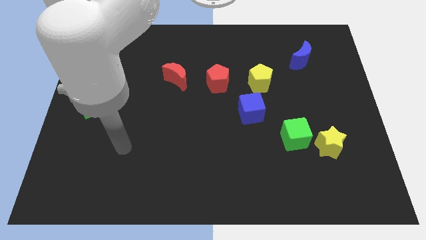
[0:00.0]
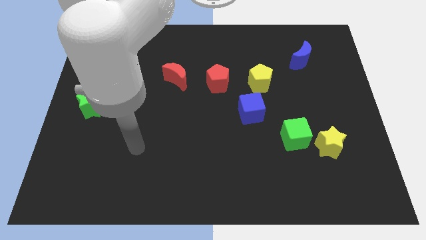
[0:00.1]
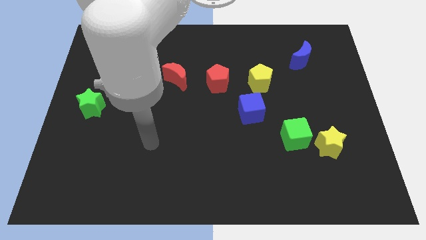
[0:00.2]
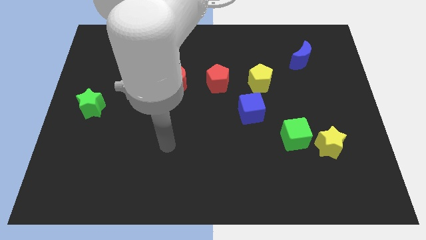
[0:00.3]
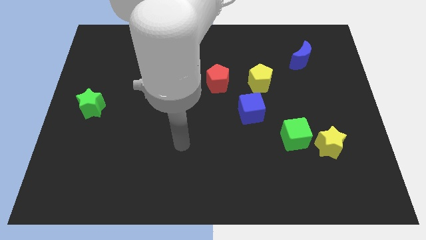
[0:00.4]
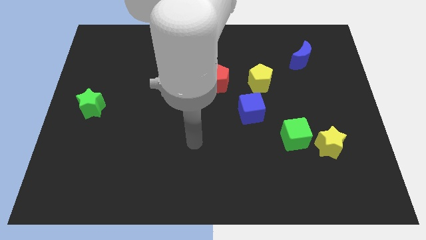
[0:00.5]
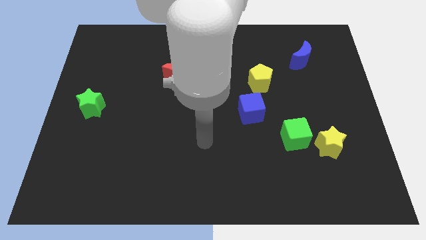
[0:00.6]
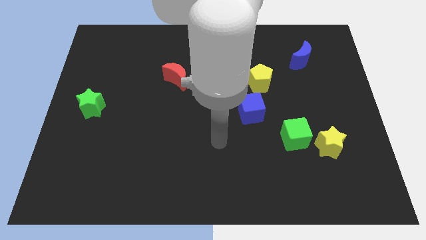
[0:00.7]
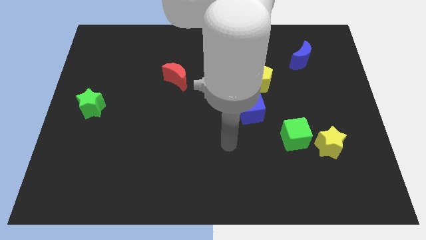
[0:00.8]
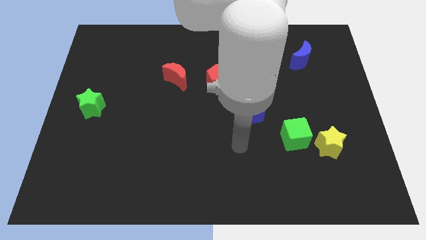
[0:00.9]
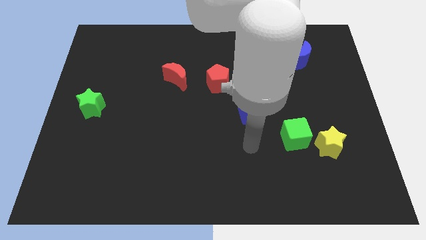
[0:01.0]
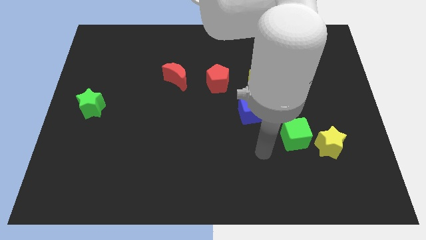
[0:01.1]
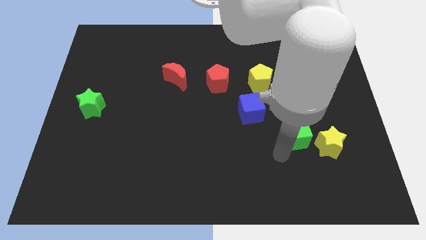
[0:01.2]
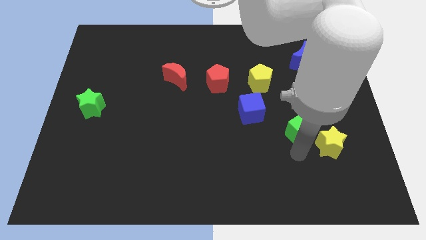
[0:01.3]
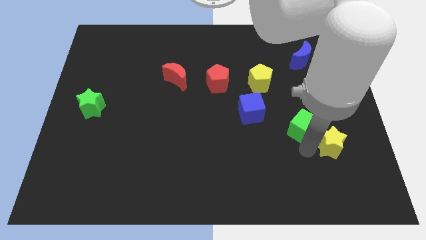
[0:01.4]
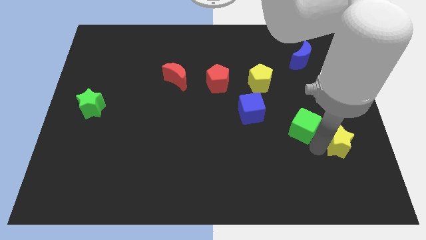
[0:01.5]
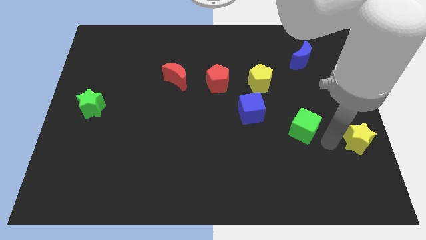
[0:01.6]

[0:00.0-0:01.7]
separate the green cube from the yellow star

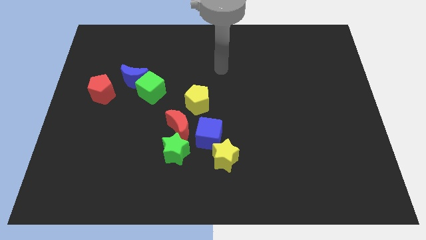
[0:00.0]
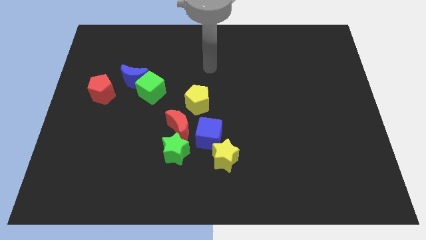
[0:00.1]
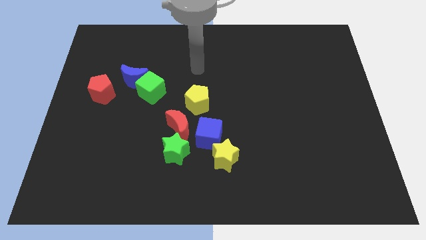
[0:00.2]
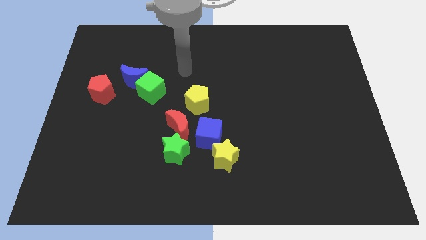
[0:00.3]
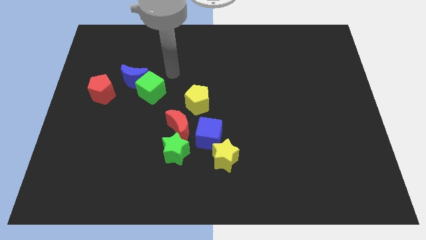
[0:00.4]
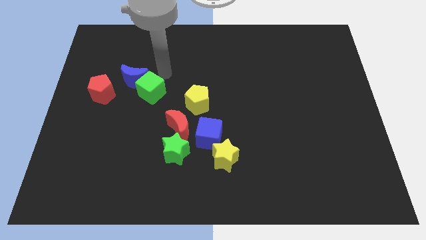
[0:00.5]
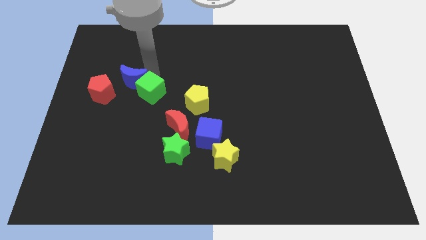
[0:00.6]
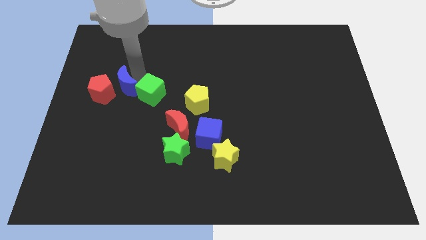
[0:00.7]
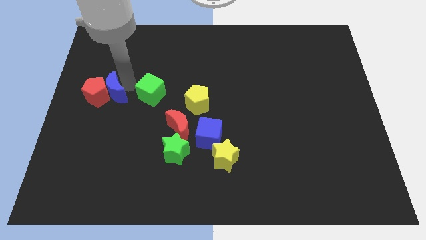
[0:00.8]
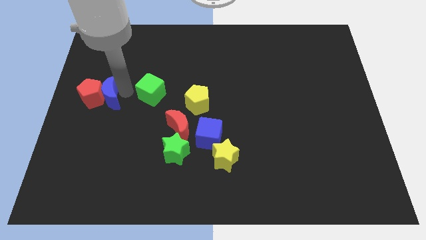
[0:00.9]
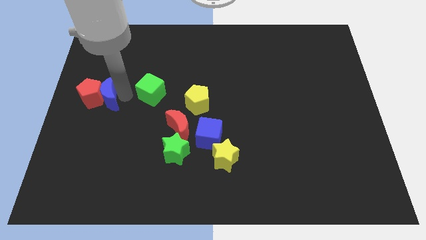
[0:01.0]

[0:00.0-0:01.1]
separate the green cube from the blue moon

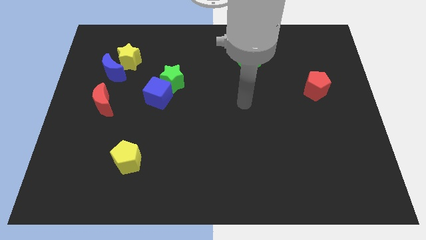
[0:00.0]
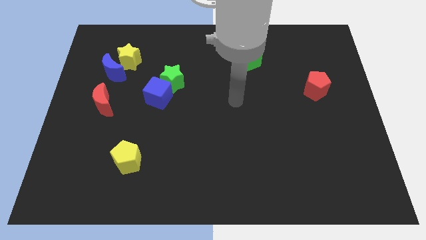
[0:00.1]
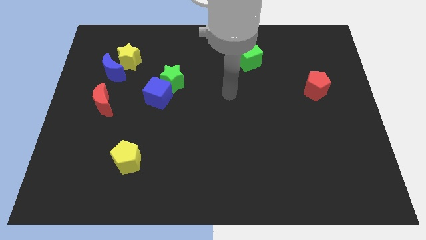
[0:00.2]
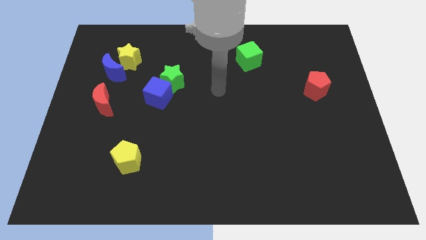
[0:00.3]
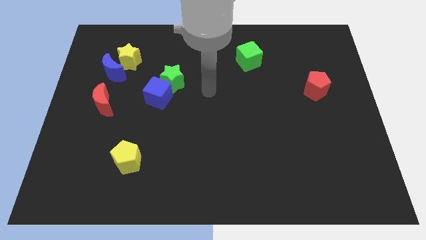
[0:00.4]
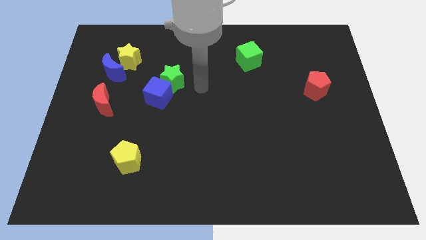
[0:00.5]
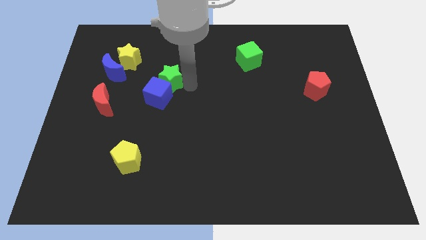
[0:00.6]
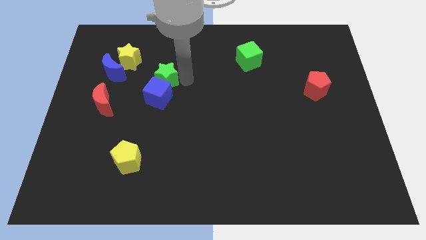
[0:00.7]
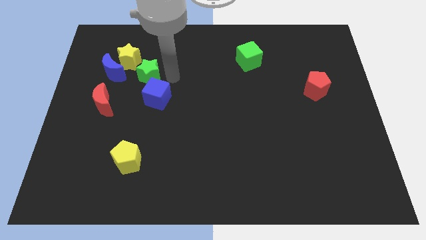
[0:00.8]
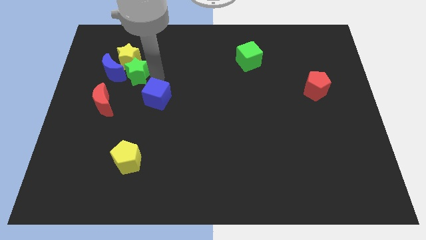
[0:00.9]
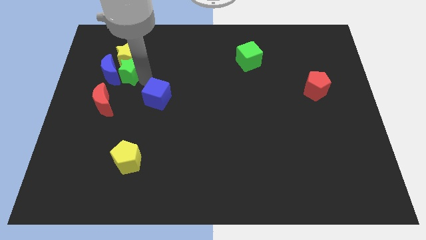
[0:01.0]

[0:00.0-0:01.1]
move the blue cube away from the green star

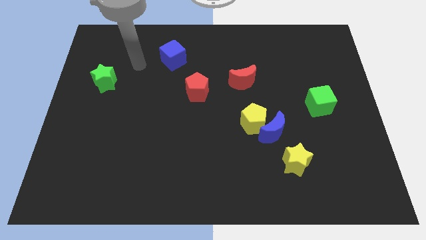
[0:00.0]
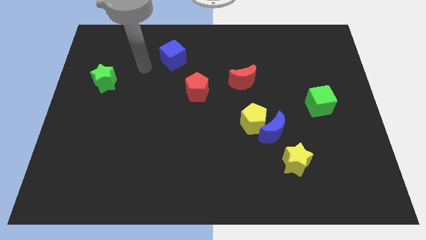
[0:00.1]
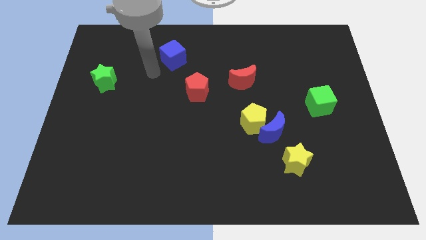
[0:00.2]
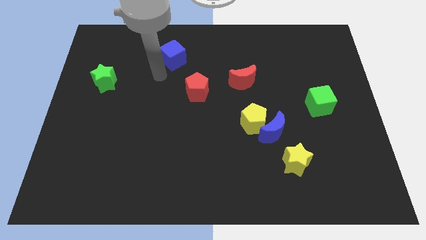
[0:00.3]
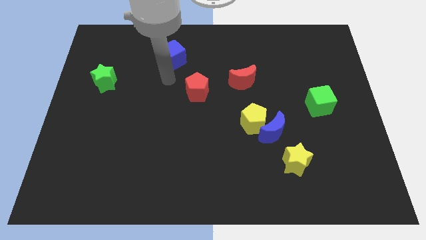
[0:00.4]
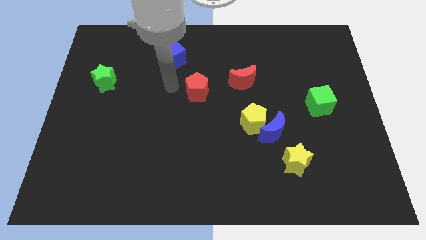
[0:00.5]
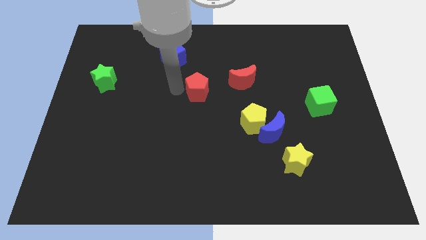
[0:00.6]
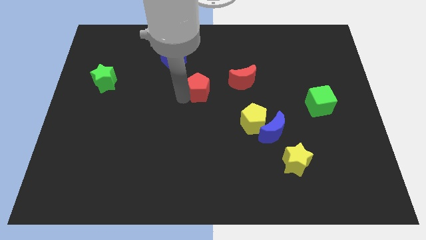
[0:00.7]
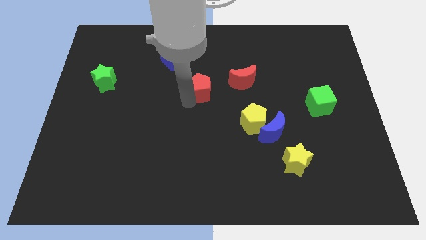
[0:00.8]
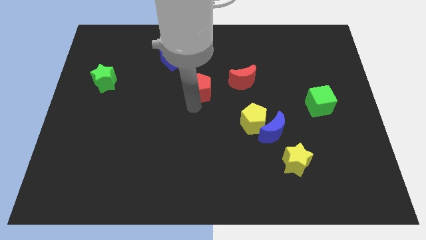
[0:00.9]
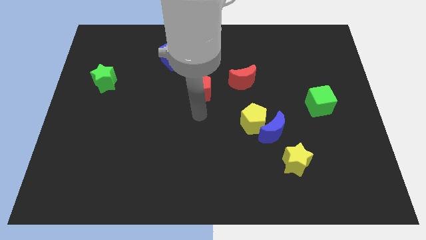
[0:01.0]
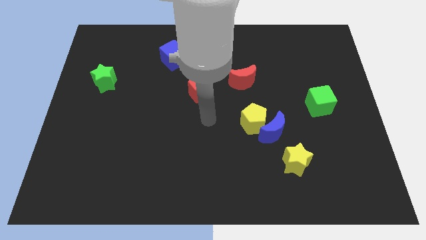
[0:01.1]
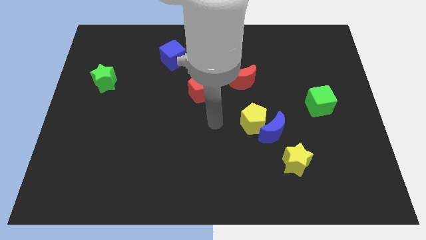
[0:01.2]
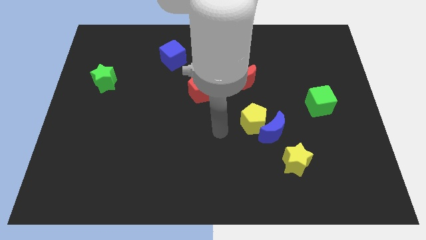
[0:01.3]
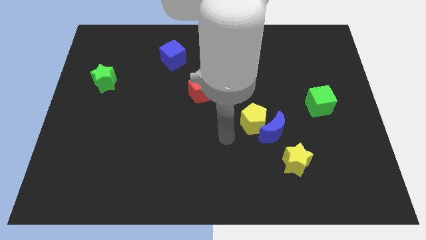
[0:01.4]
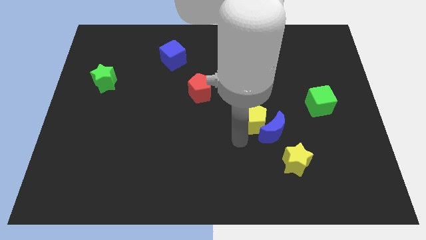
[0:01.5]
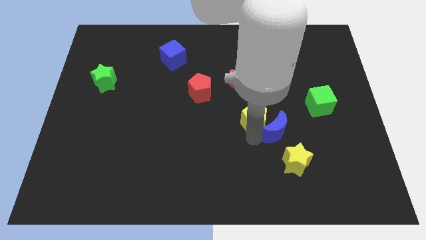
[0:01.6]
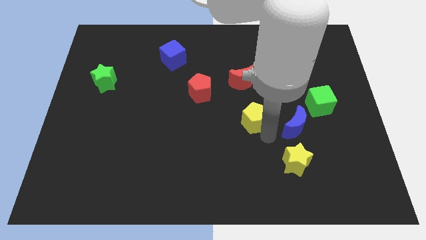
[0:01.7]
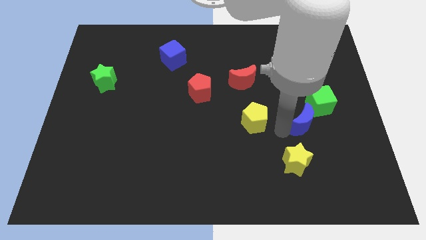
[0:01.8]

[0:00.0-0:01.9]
move the yellow pentagon away from the blue moon

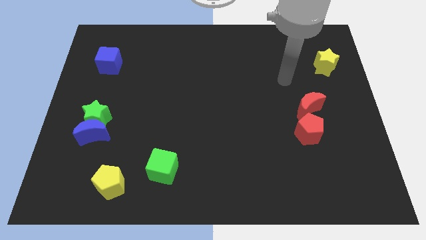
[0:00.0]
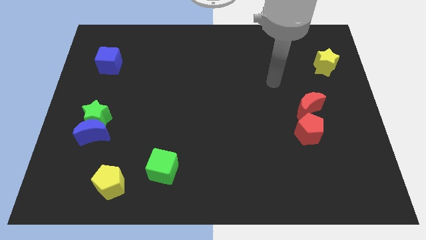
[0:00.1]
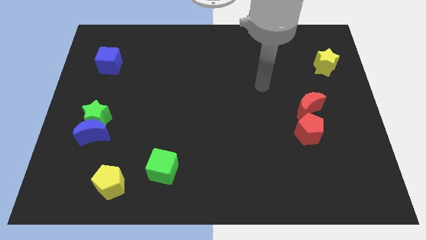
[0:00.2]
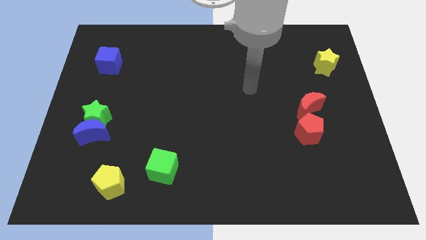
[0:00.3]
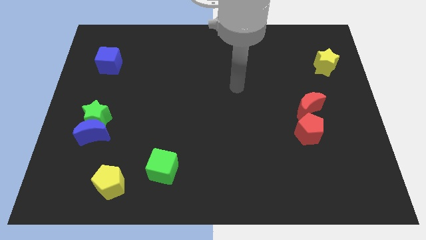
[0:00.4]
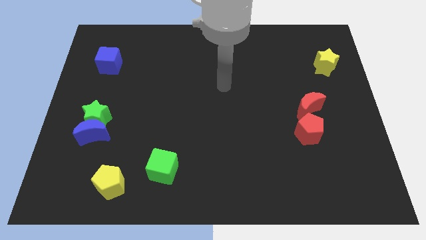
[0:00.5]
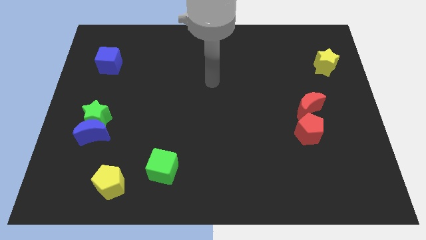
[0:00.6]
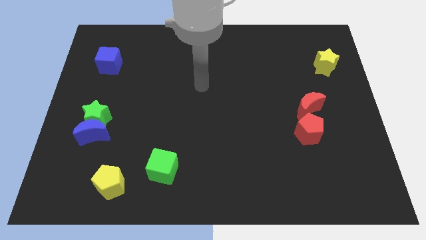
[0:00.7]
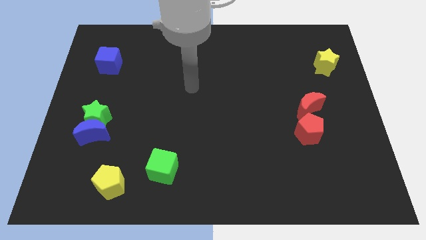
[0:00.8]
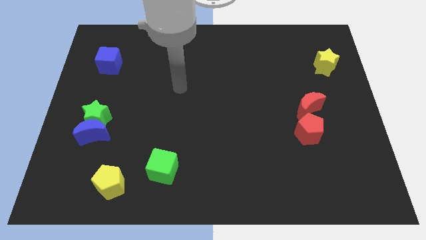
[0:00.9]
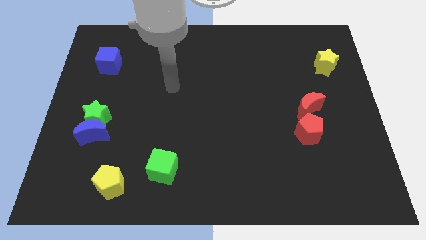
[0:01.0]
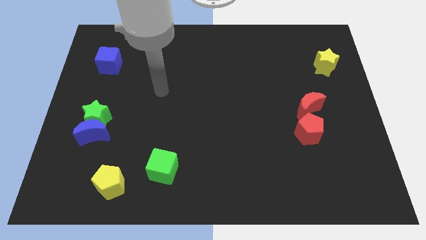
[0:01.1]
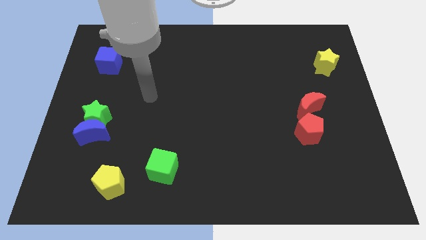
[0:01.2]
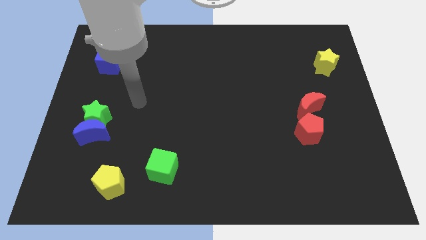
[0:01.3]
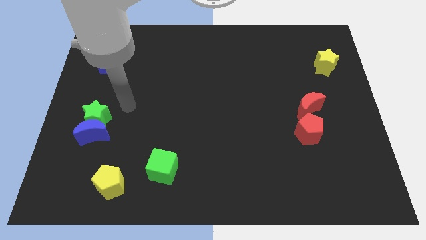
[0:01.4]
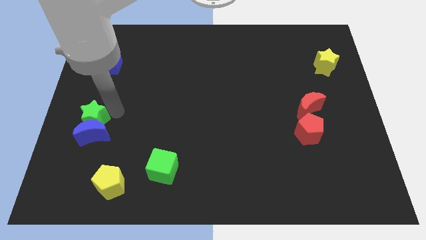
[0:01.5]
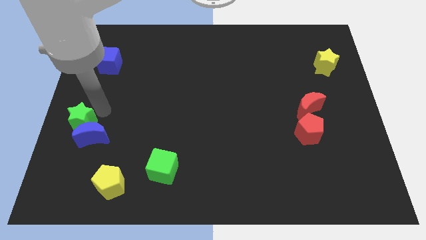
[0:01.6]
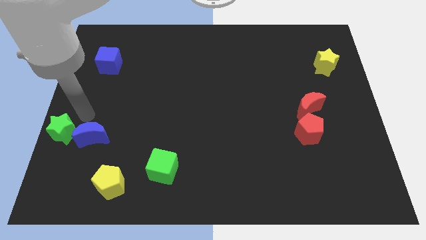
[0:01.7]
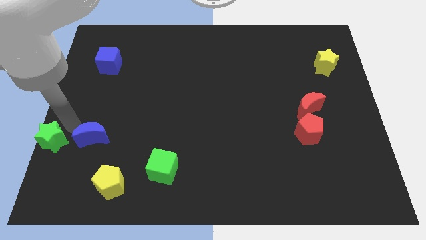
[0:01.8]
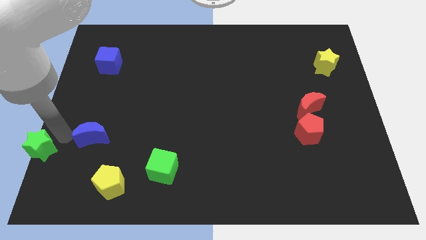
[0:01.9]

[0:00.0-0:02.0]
separate the blue moon from the green star

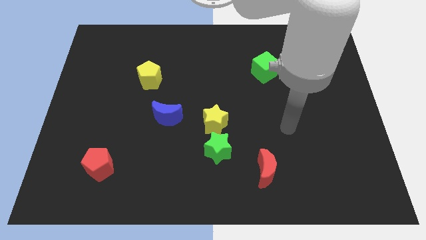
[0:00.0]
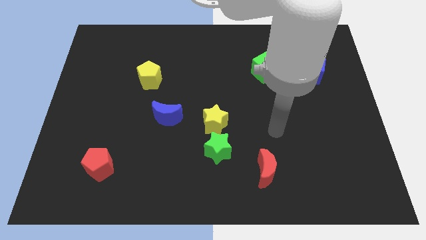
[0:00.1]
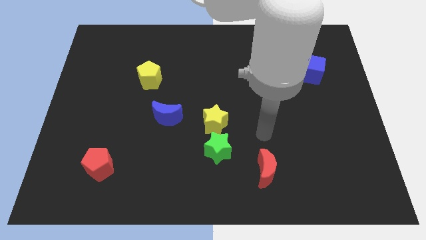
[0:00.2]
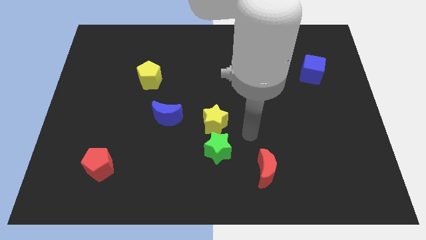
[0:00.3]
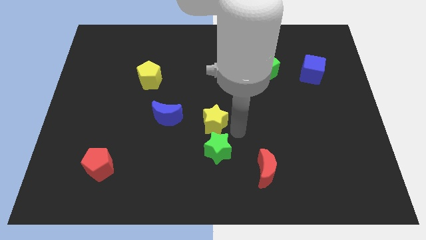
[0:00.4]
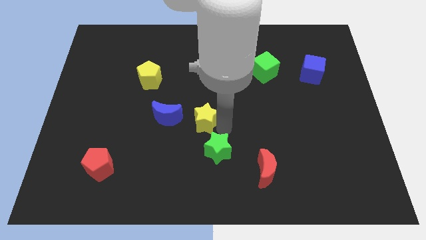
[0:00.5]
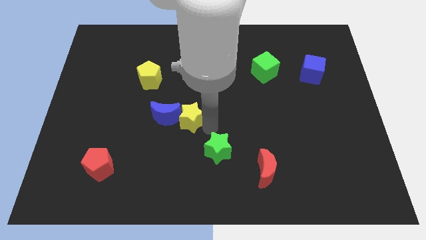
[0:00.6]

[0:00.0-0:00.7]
pull the green star apart from the yellow star

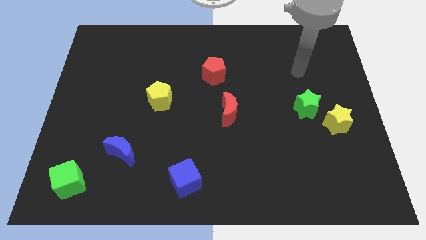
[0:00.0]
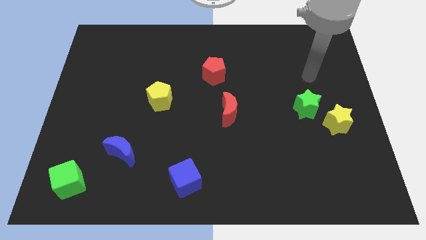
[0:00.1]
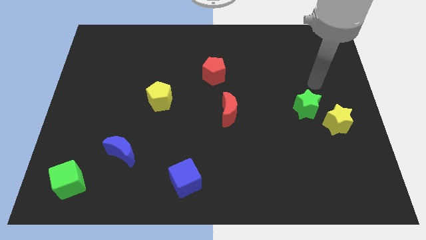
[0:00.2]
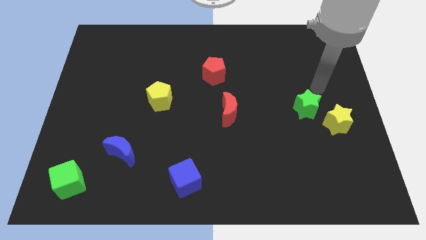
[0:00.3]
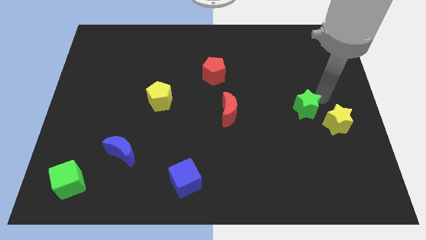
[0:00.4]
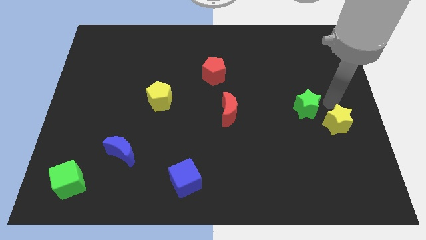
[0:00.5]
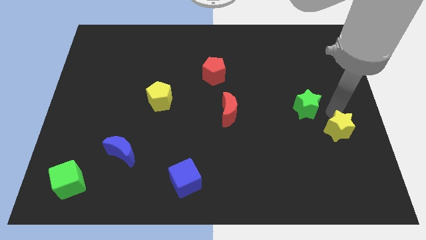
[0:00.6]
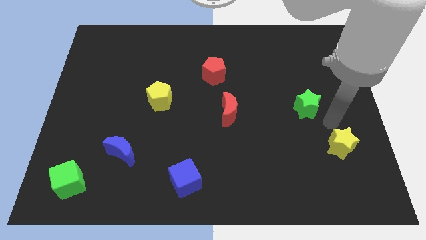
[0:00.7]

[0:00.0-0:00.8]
separate the green star from the yellow star
